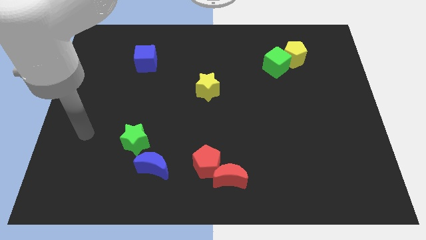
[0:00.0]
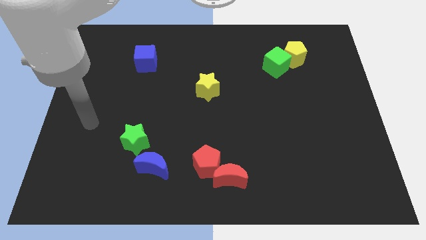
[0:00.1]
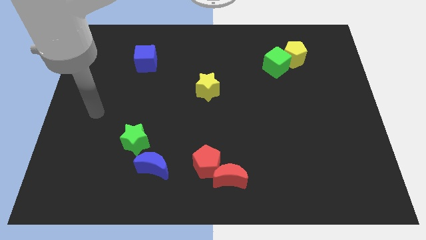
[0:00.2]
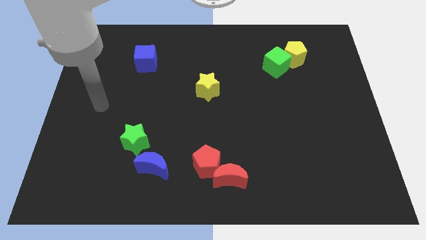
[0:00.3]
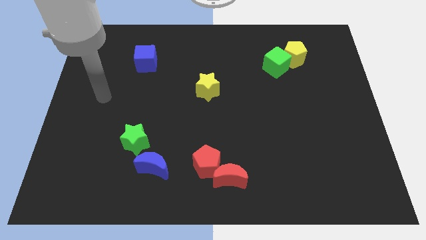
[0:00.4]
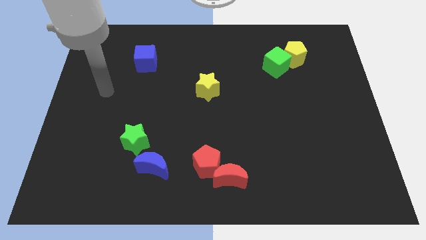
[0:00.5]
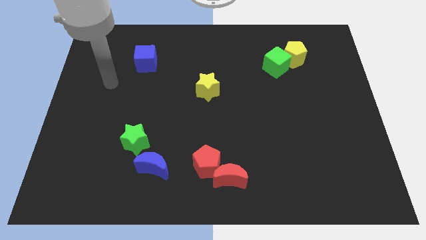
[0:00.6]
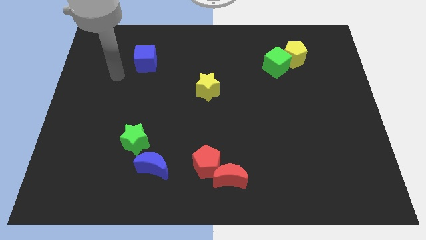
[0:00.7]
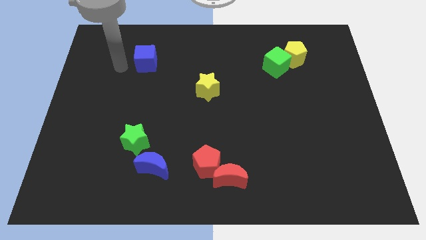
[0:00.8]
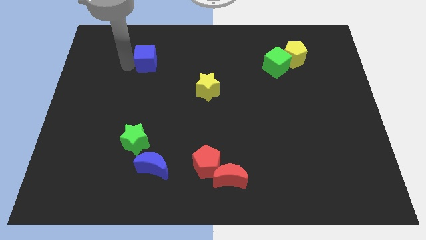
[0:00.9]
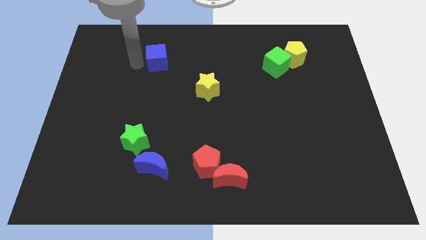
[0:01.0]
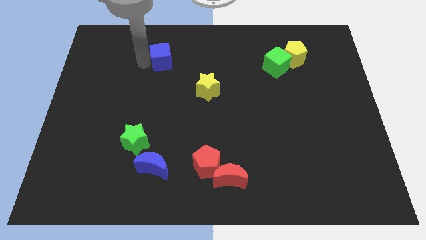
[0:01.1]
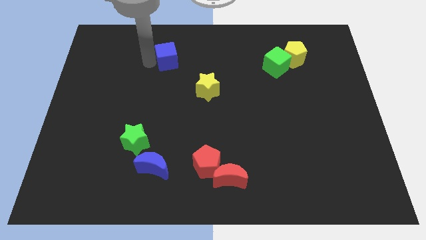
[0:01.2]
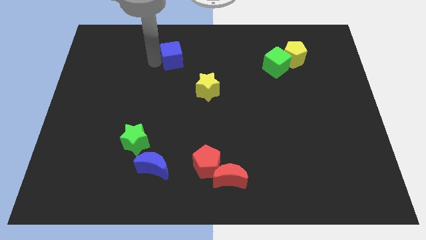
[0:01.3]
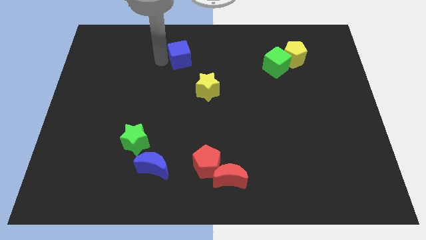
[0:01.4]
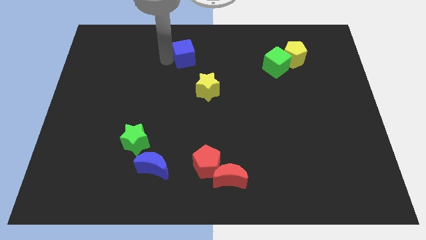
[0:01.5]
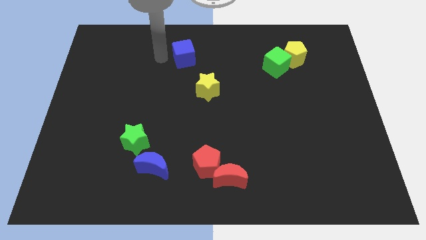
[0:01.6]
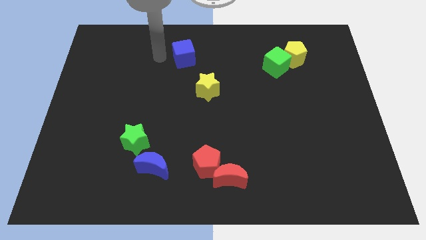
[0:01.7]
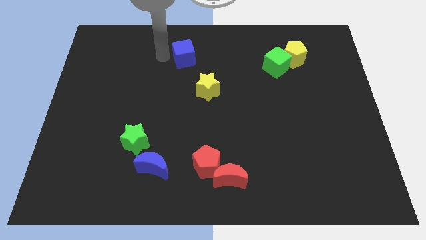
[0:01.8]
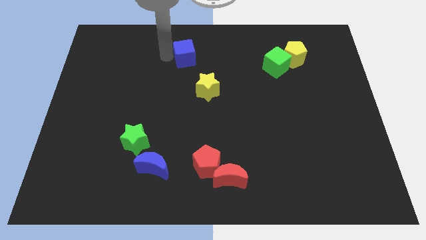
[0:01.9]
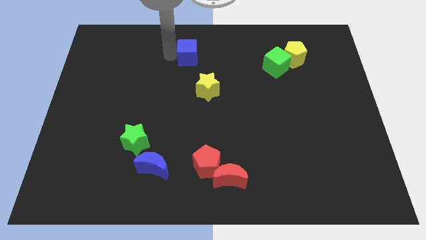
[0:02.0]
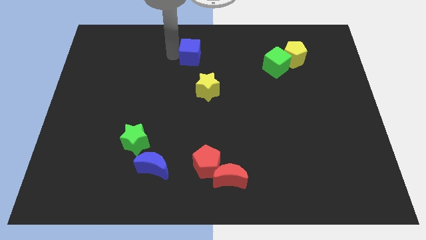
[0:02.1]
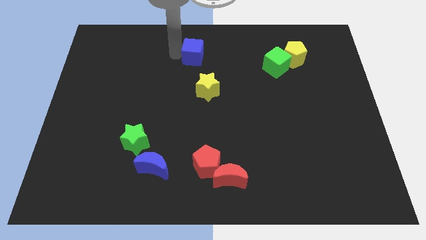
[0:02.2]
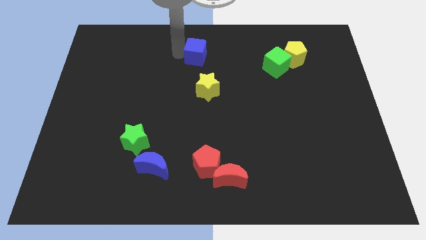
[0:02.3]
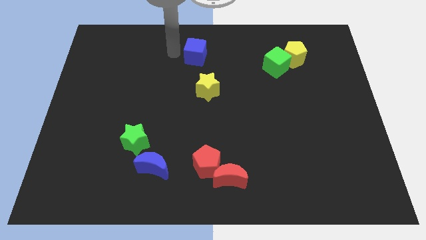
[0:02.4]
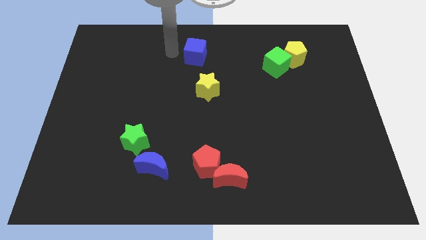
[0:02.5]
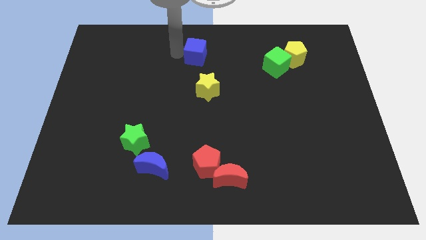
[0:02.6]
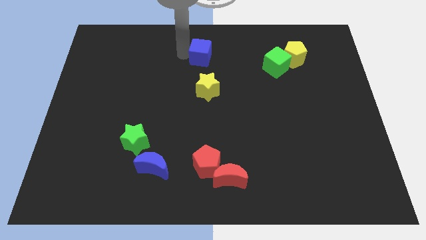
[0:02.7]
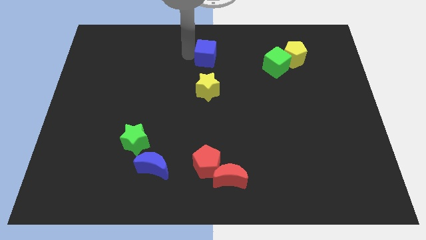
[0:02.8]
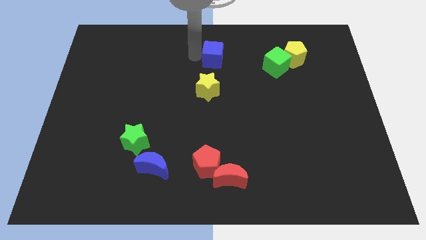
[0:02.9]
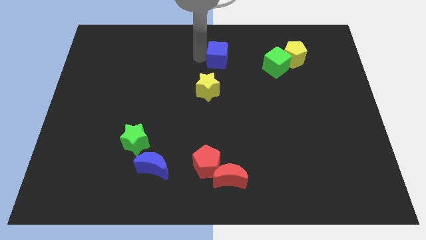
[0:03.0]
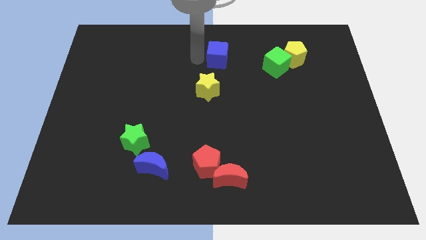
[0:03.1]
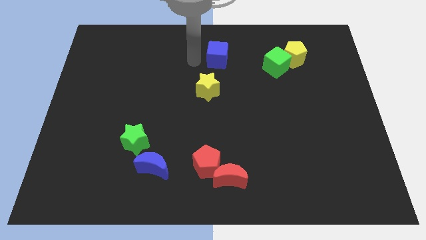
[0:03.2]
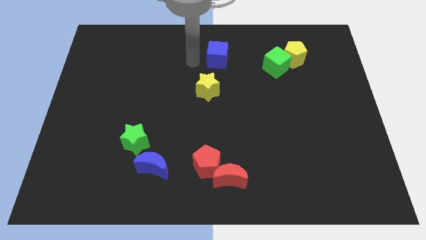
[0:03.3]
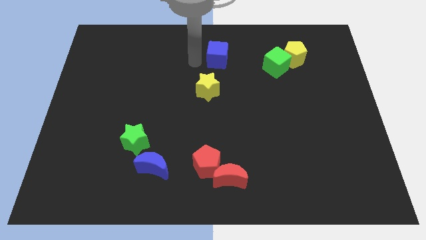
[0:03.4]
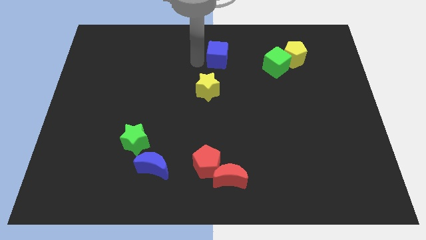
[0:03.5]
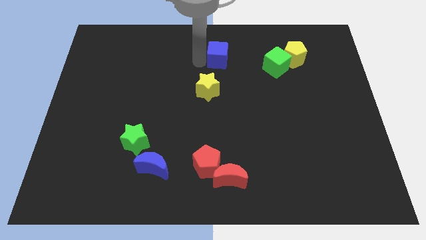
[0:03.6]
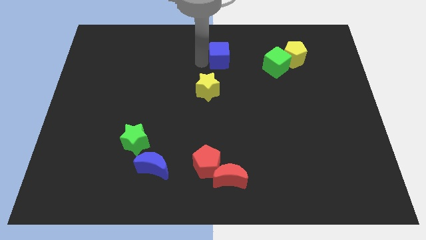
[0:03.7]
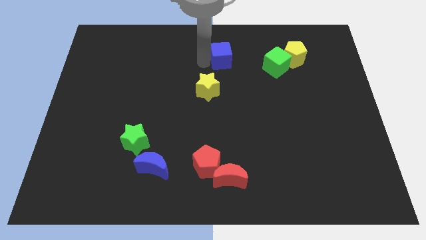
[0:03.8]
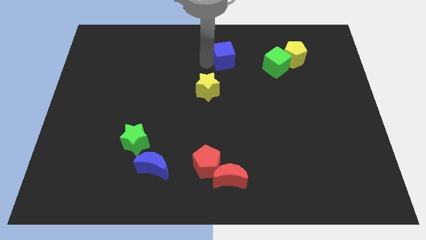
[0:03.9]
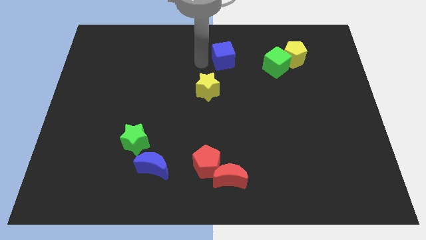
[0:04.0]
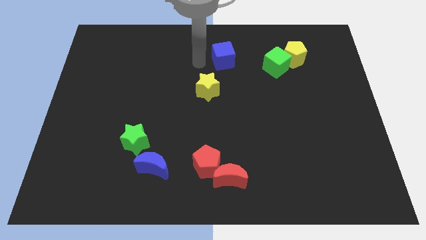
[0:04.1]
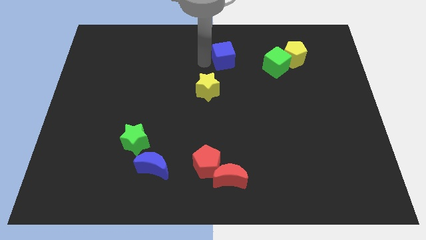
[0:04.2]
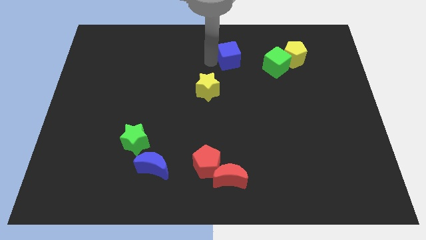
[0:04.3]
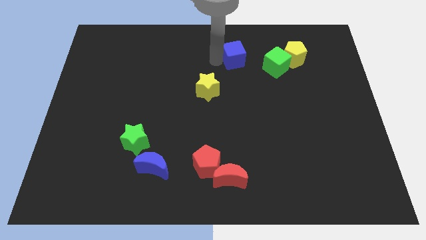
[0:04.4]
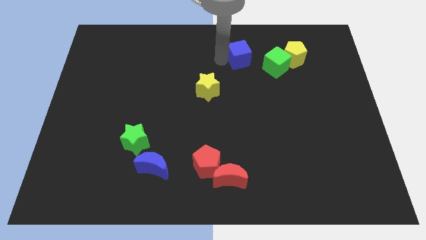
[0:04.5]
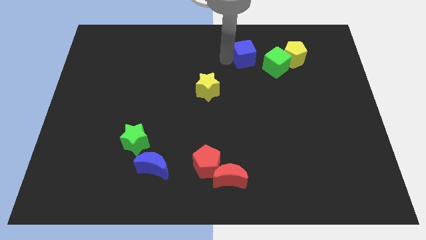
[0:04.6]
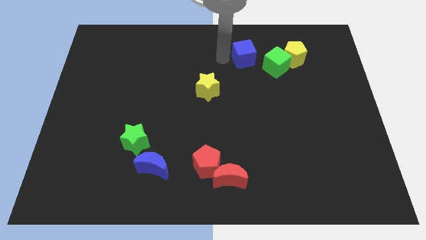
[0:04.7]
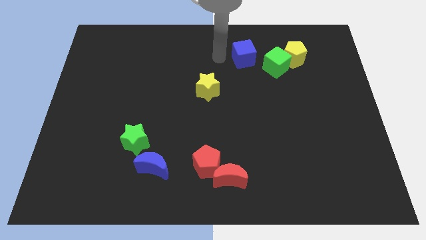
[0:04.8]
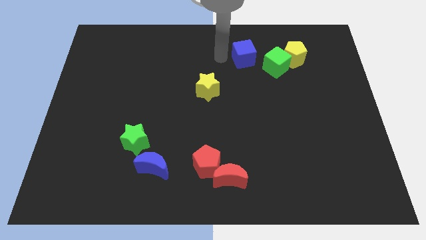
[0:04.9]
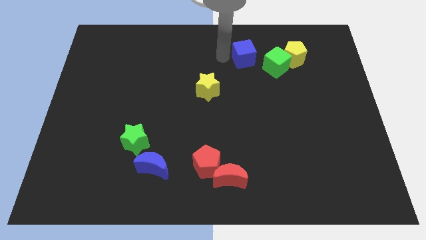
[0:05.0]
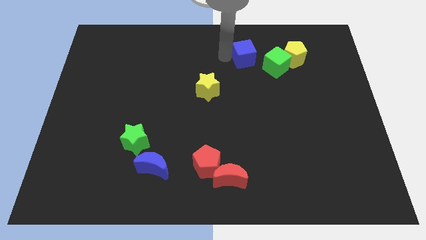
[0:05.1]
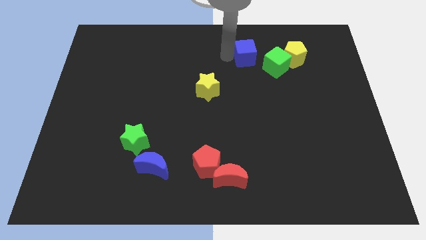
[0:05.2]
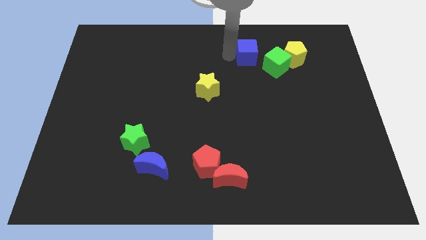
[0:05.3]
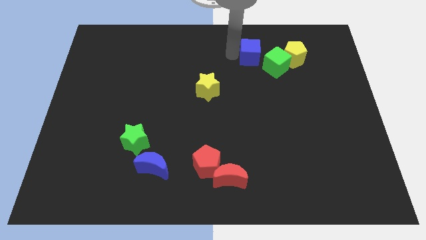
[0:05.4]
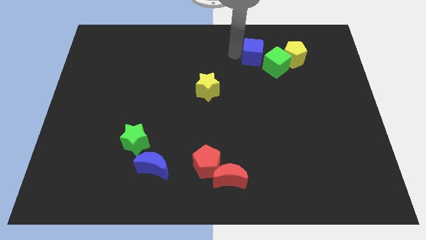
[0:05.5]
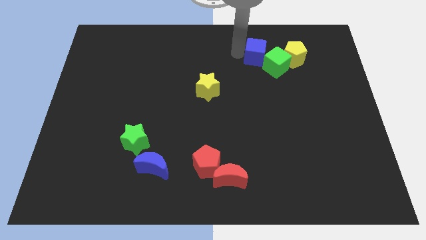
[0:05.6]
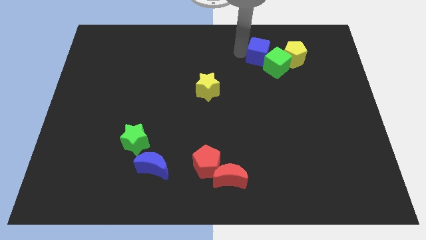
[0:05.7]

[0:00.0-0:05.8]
move the blue cube close to the green cube

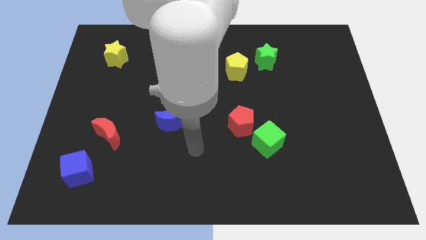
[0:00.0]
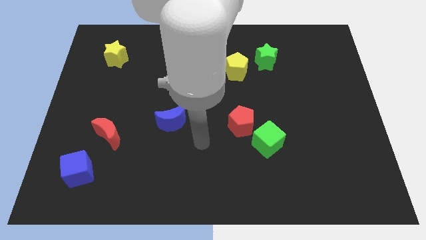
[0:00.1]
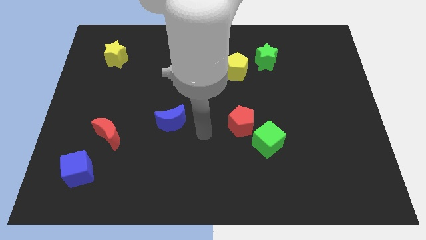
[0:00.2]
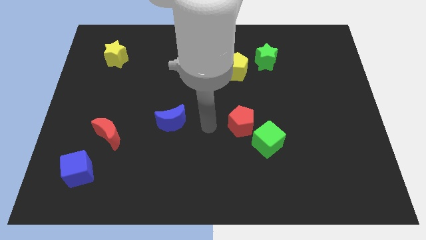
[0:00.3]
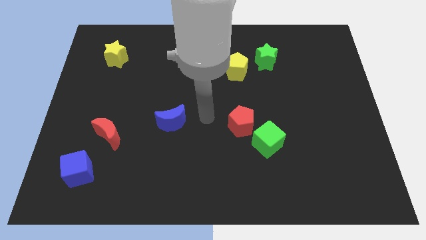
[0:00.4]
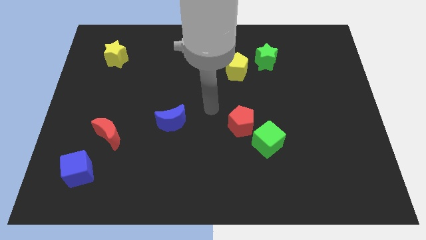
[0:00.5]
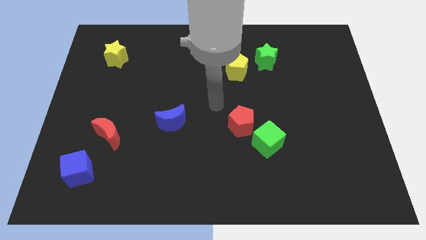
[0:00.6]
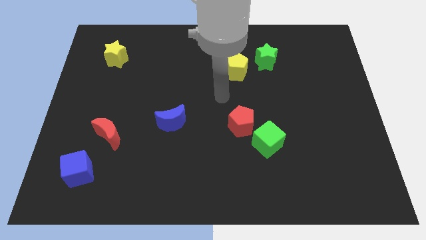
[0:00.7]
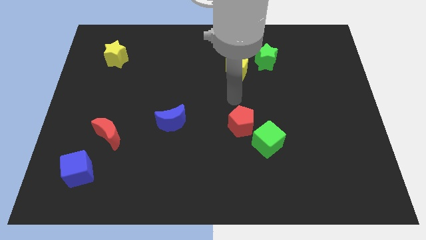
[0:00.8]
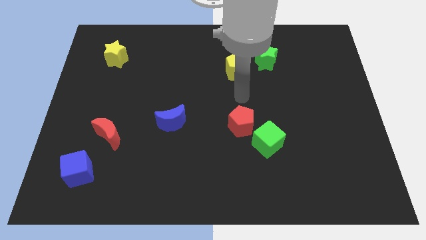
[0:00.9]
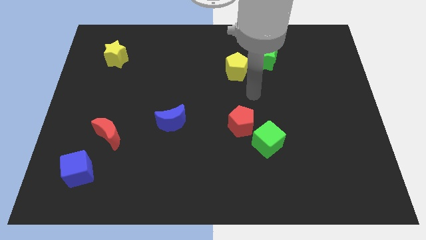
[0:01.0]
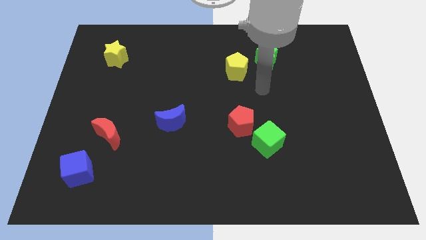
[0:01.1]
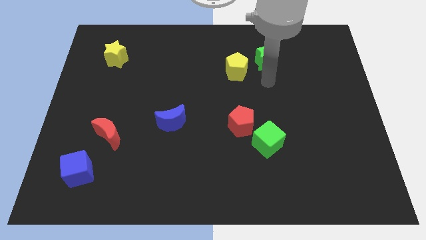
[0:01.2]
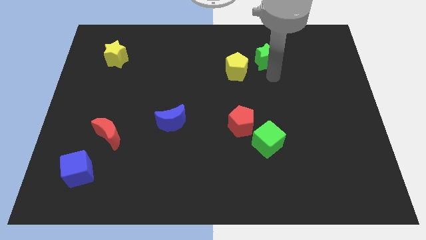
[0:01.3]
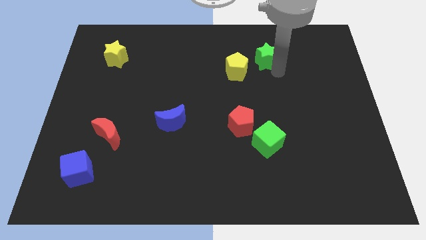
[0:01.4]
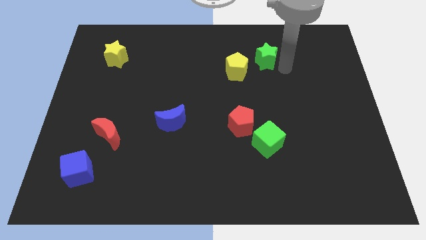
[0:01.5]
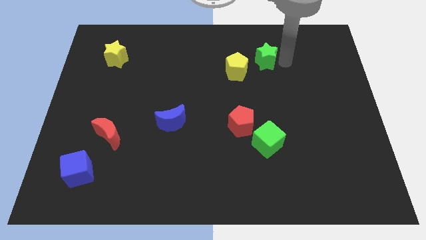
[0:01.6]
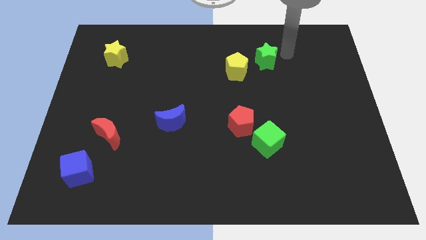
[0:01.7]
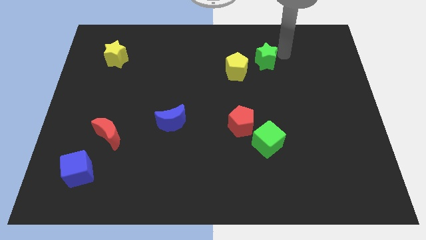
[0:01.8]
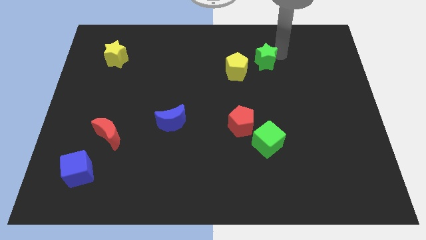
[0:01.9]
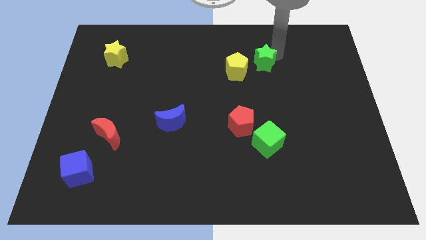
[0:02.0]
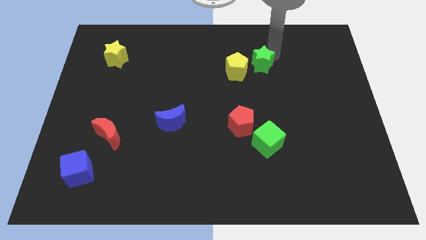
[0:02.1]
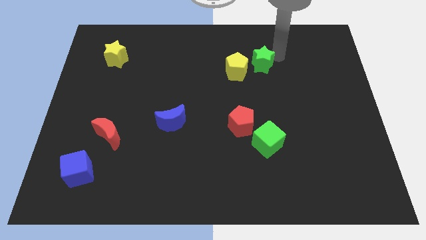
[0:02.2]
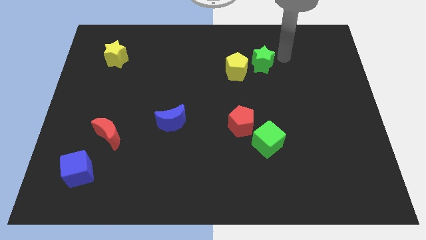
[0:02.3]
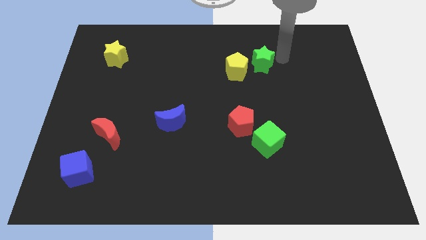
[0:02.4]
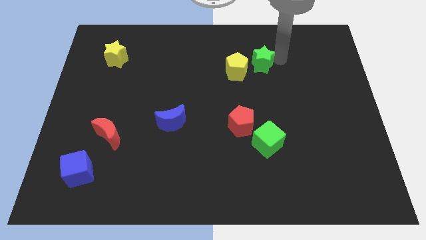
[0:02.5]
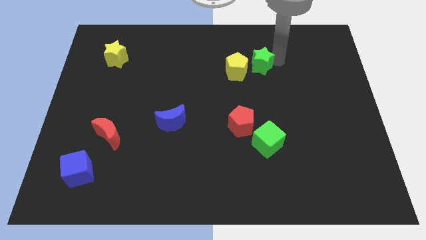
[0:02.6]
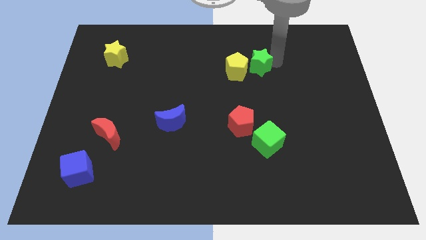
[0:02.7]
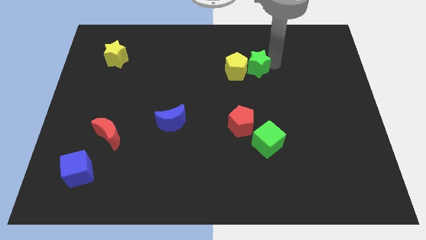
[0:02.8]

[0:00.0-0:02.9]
slide the green star next to the yellow pentagon
